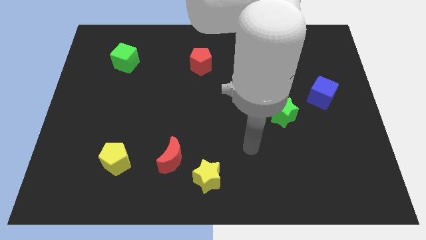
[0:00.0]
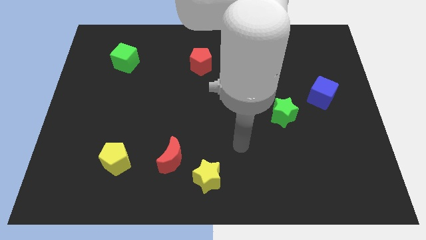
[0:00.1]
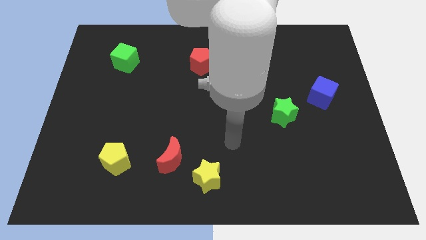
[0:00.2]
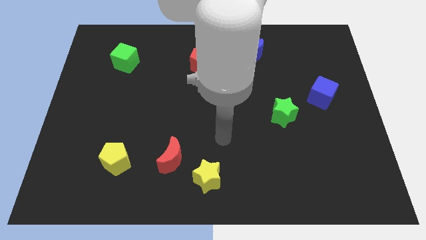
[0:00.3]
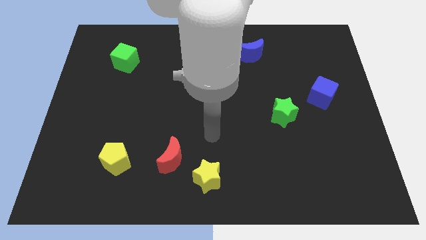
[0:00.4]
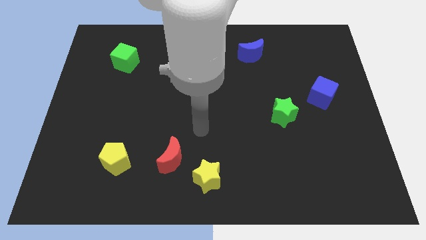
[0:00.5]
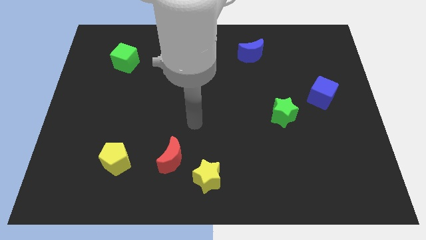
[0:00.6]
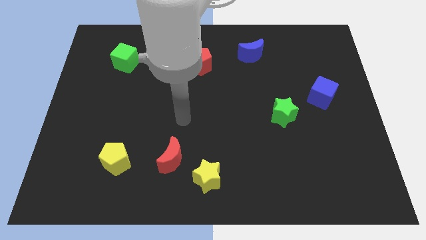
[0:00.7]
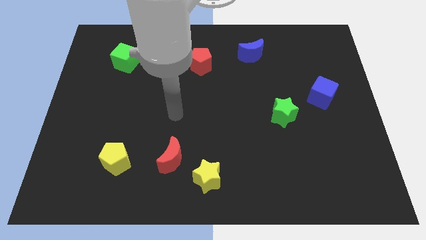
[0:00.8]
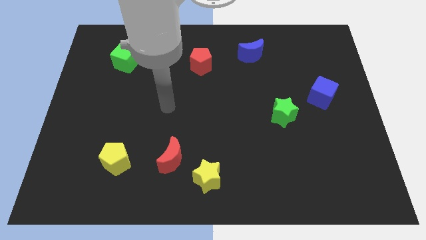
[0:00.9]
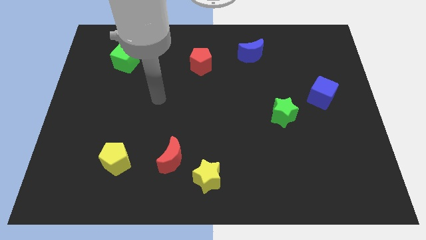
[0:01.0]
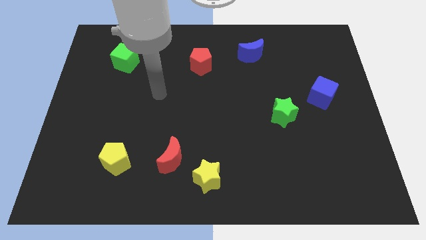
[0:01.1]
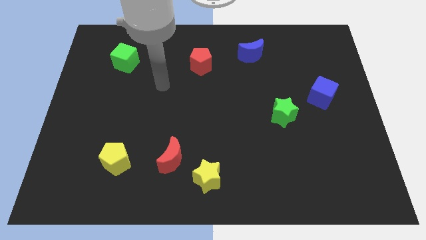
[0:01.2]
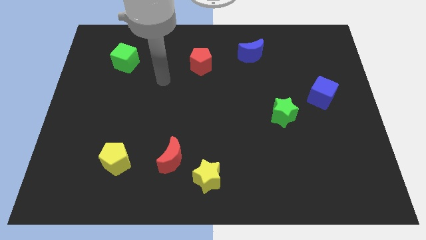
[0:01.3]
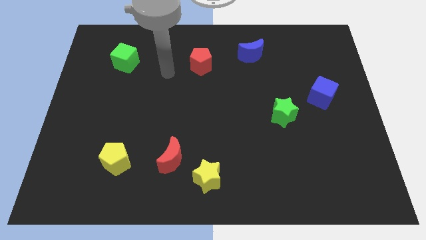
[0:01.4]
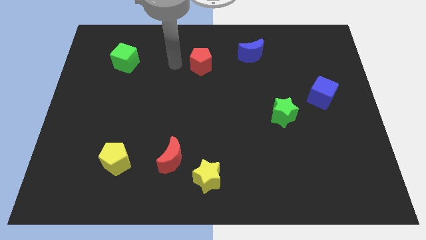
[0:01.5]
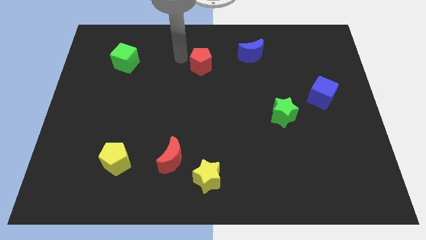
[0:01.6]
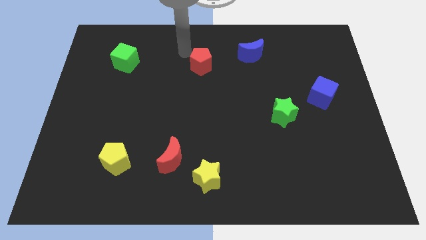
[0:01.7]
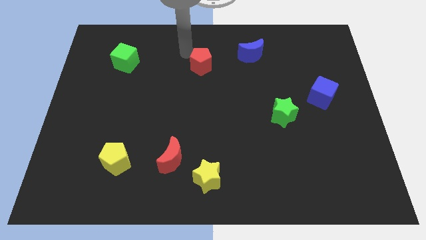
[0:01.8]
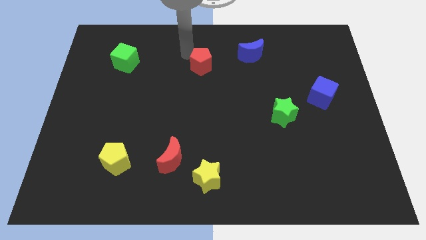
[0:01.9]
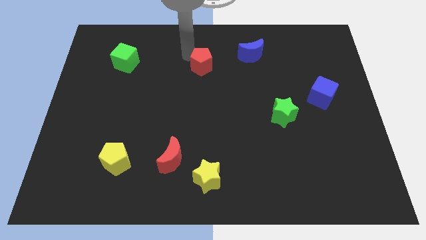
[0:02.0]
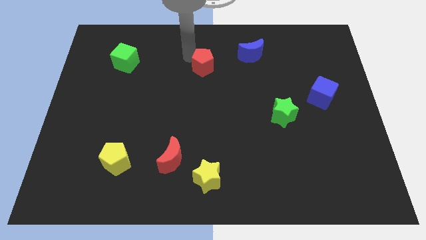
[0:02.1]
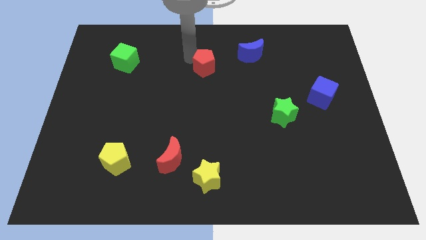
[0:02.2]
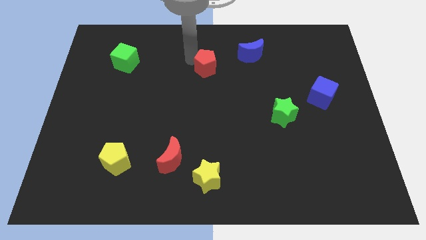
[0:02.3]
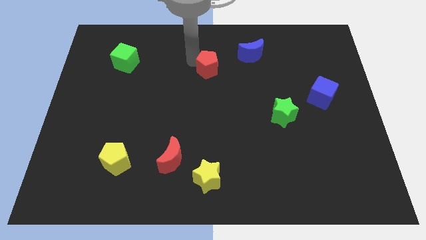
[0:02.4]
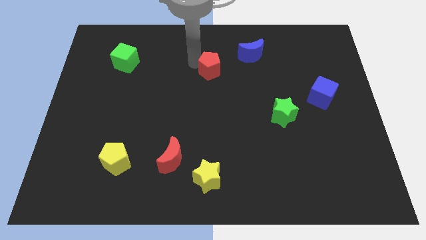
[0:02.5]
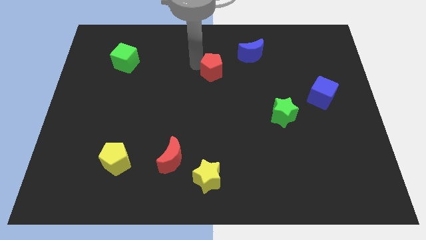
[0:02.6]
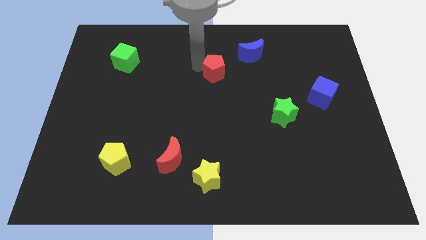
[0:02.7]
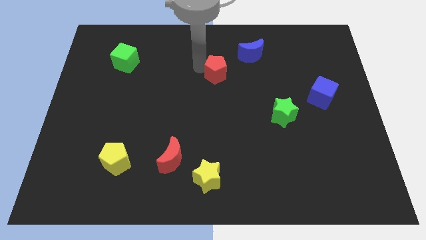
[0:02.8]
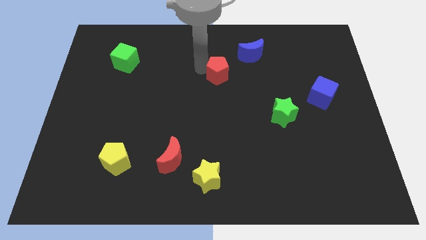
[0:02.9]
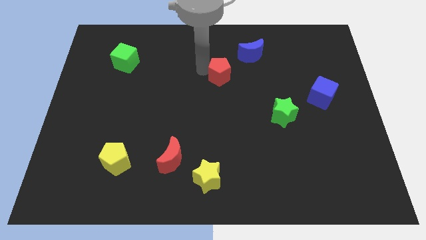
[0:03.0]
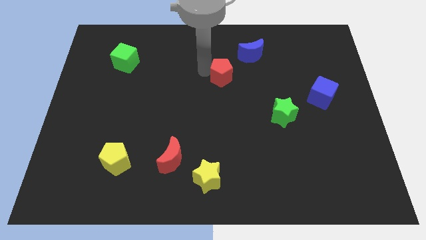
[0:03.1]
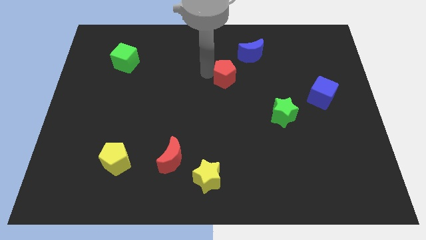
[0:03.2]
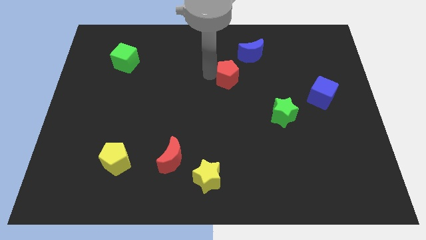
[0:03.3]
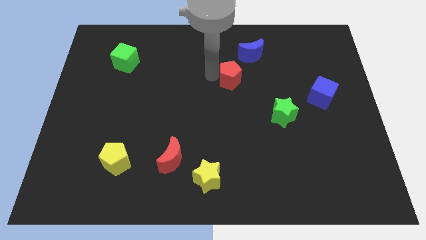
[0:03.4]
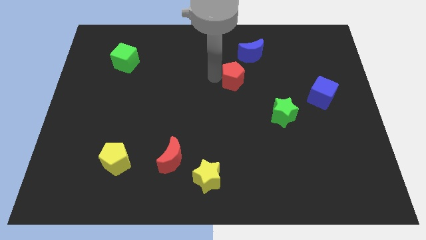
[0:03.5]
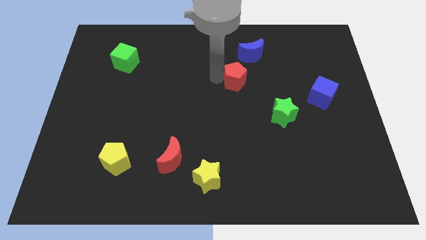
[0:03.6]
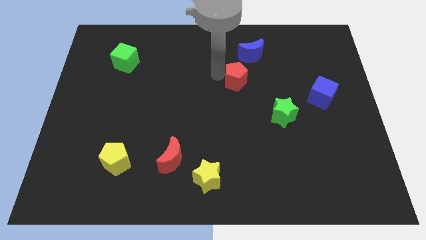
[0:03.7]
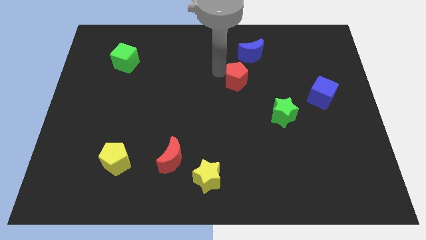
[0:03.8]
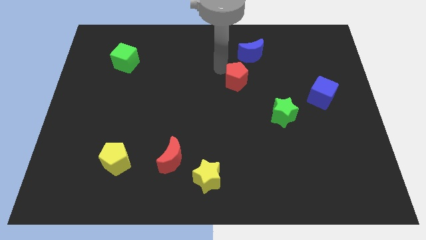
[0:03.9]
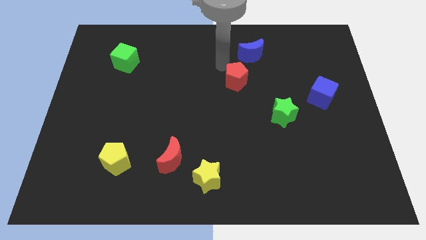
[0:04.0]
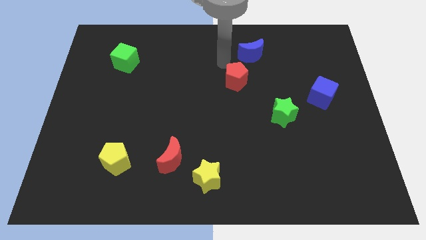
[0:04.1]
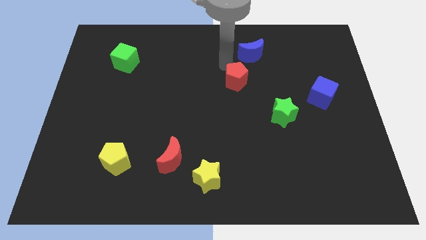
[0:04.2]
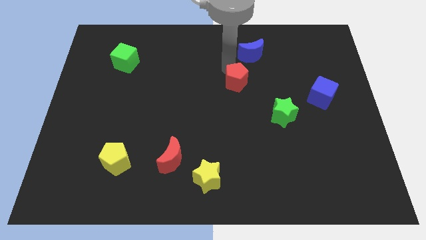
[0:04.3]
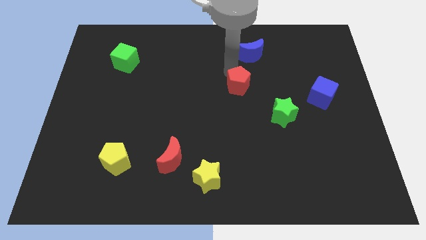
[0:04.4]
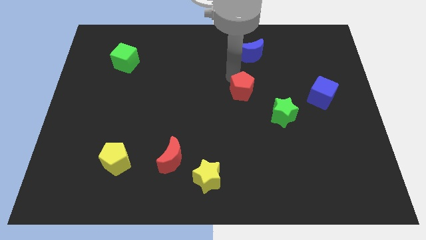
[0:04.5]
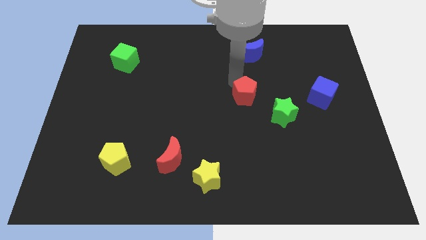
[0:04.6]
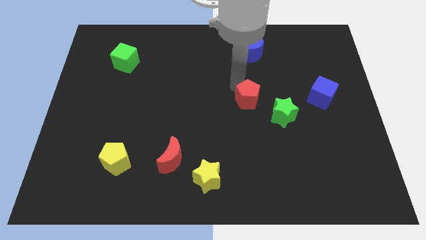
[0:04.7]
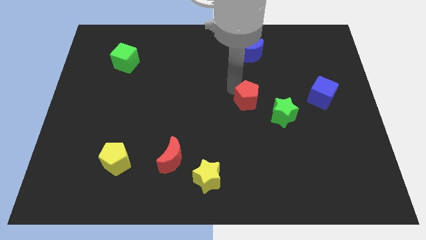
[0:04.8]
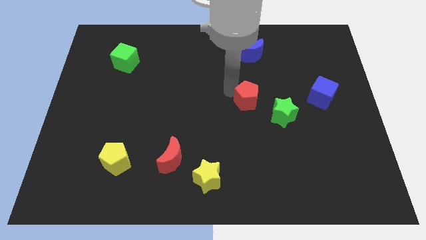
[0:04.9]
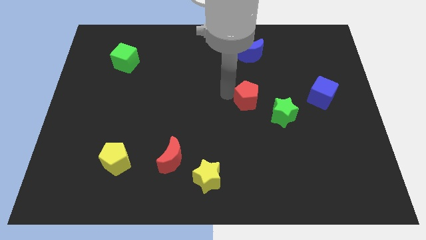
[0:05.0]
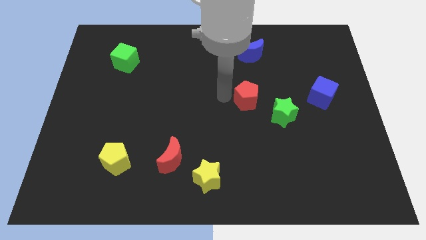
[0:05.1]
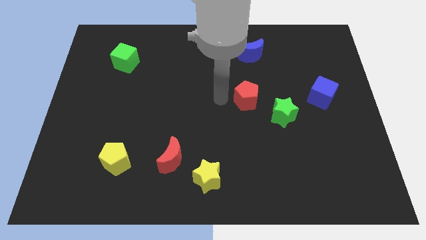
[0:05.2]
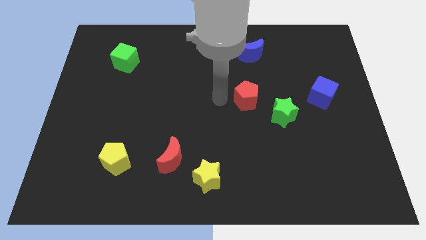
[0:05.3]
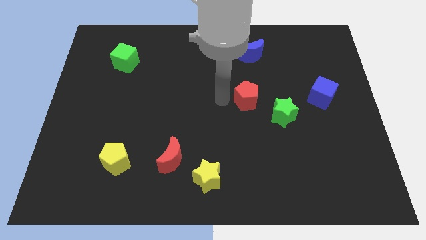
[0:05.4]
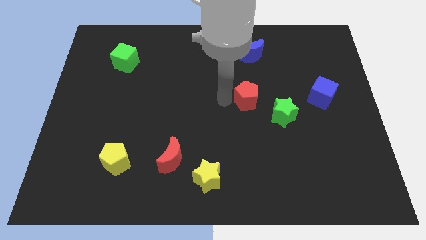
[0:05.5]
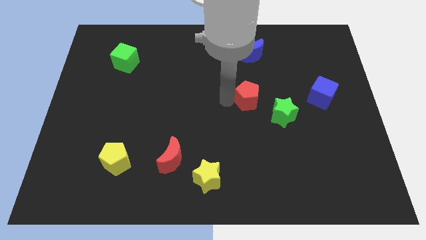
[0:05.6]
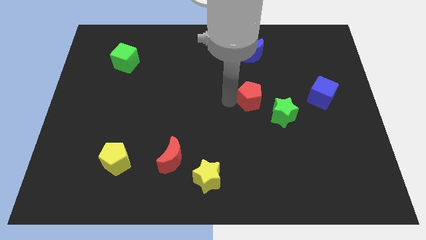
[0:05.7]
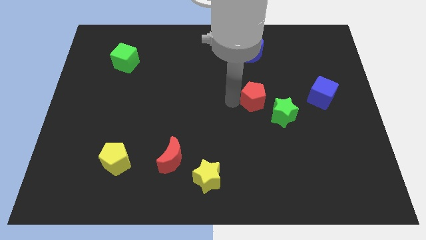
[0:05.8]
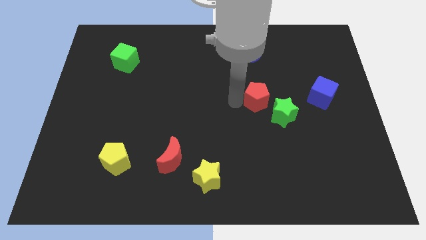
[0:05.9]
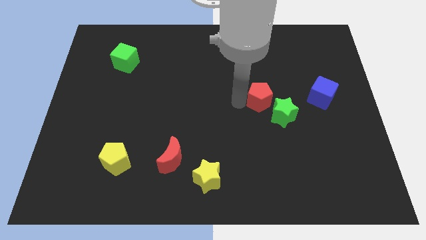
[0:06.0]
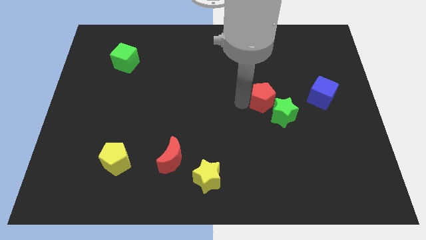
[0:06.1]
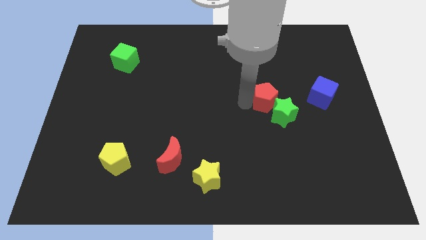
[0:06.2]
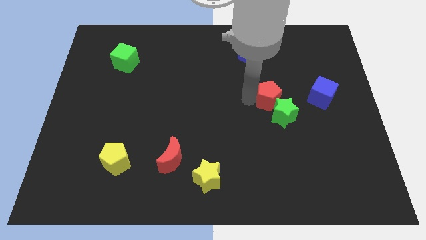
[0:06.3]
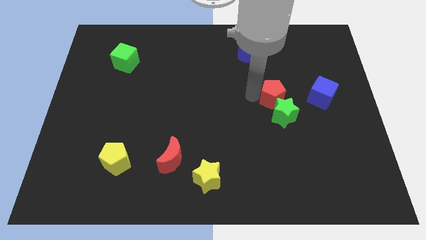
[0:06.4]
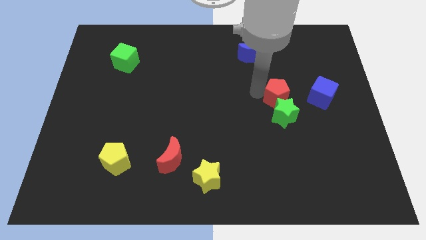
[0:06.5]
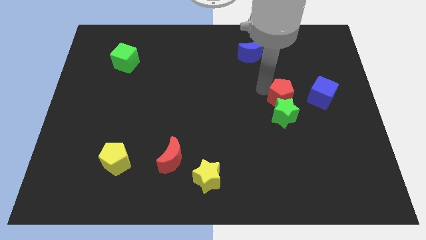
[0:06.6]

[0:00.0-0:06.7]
push the red pentagon diagonally downwards and to the right

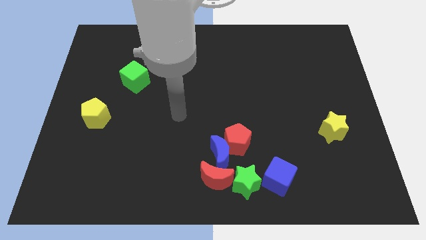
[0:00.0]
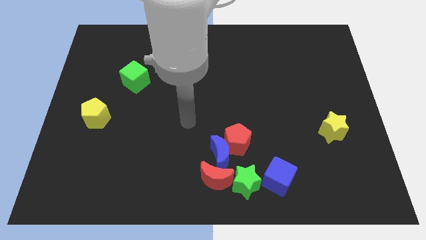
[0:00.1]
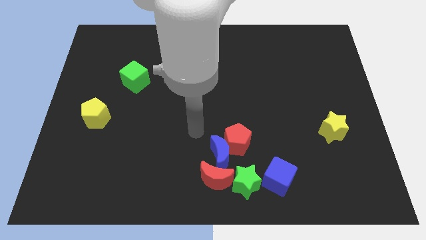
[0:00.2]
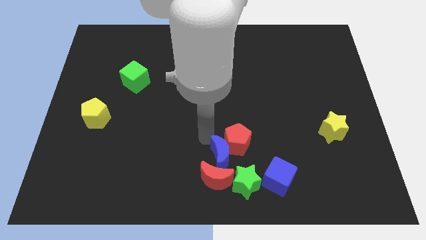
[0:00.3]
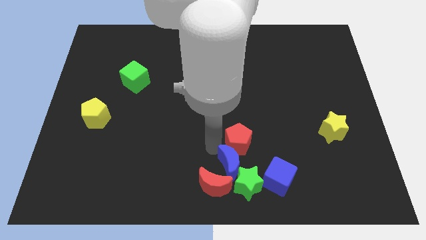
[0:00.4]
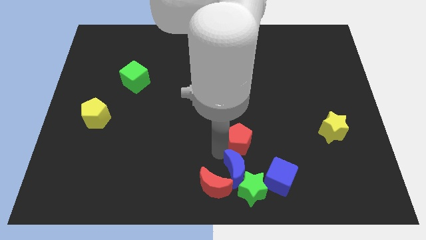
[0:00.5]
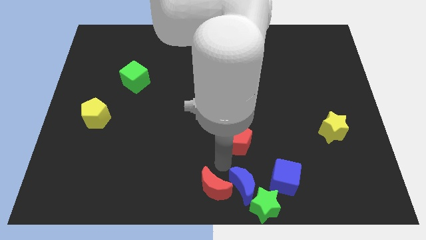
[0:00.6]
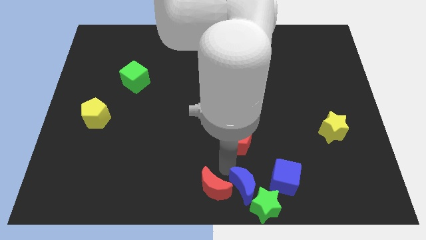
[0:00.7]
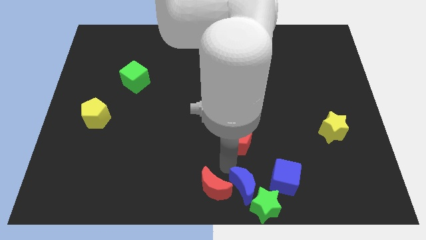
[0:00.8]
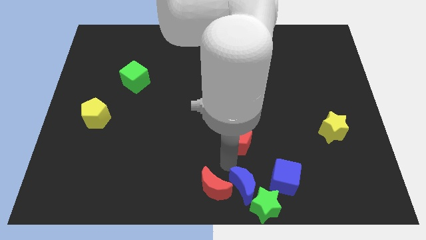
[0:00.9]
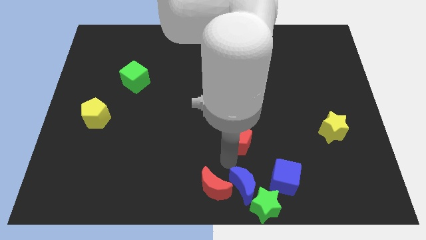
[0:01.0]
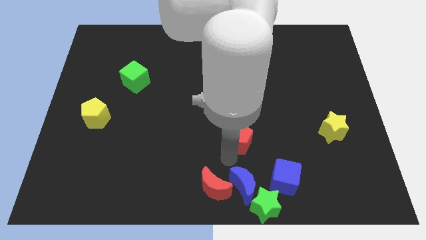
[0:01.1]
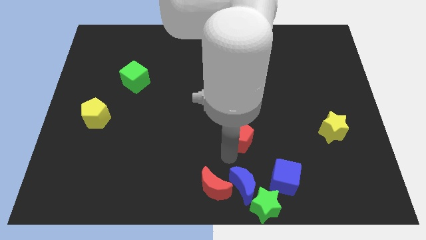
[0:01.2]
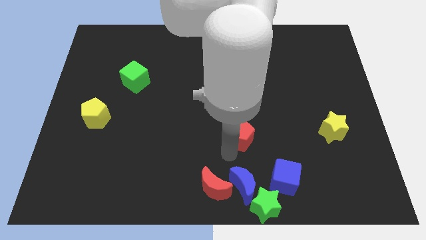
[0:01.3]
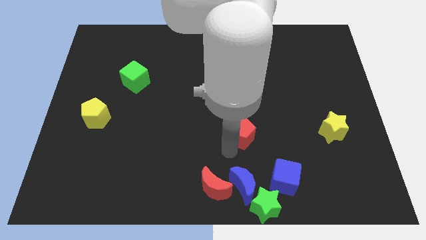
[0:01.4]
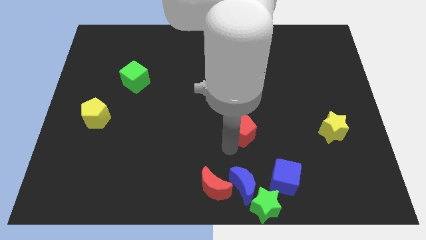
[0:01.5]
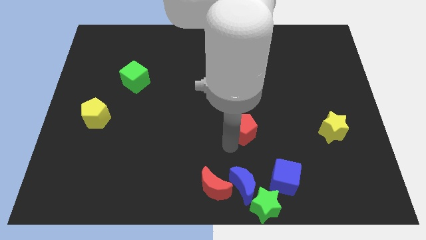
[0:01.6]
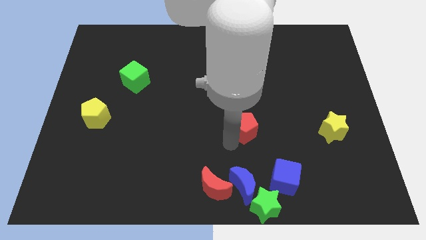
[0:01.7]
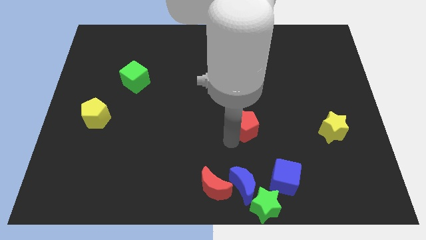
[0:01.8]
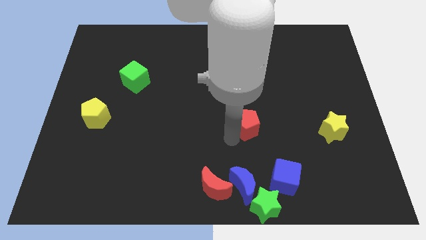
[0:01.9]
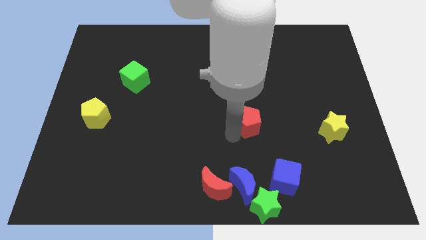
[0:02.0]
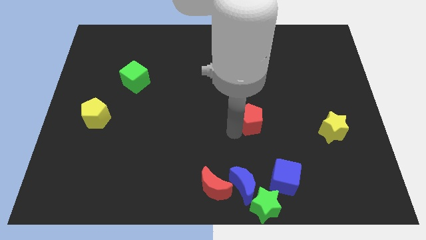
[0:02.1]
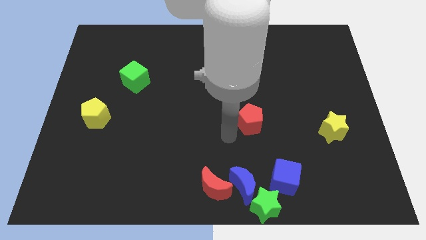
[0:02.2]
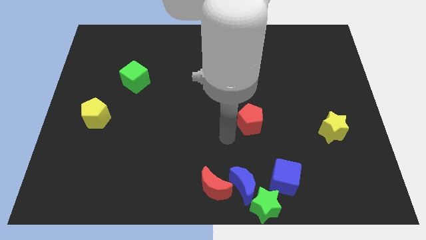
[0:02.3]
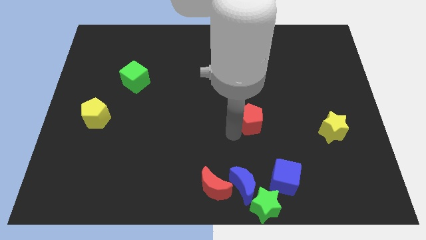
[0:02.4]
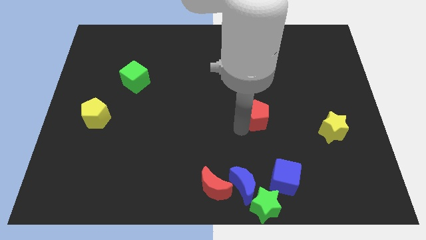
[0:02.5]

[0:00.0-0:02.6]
slide the red pentagon up and then to the right somewhat
